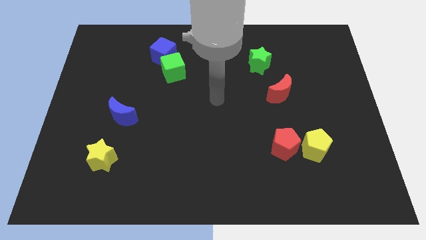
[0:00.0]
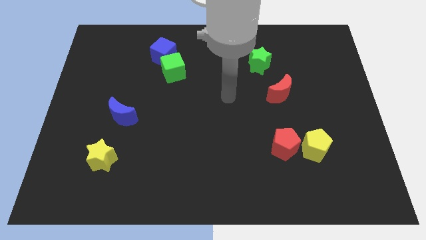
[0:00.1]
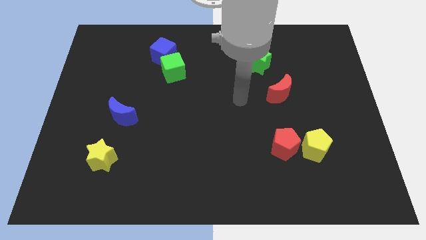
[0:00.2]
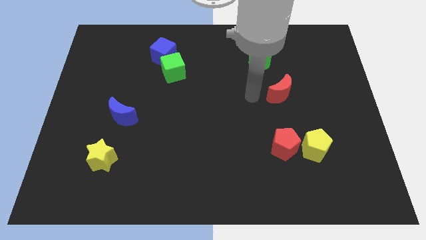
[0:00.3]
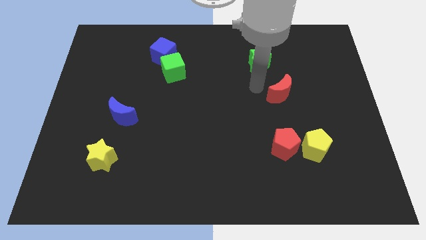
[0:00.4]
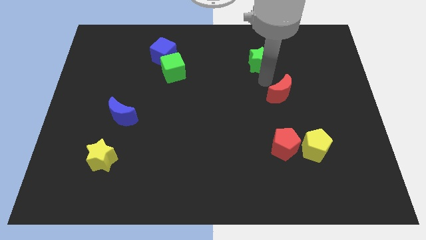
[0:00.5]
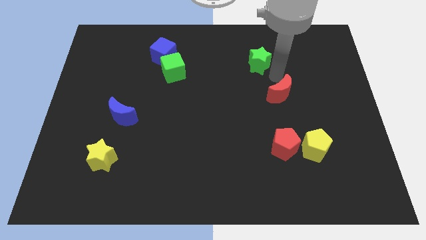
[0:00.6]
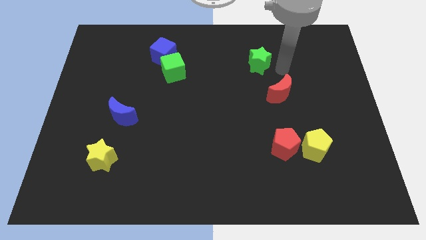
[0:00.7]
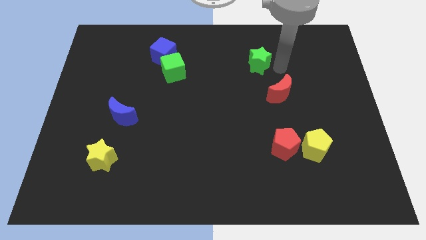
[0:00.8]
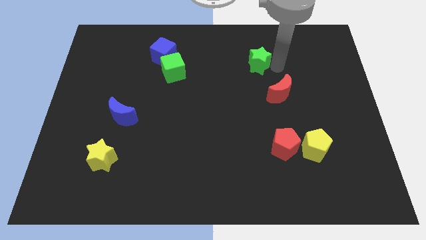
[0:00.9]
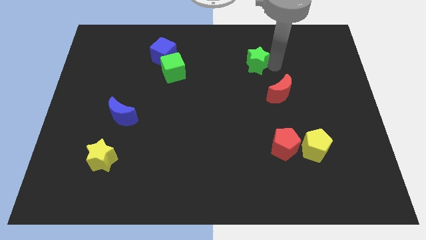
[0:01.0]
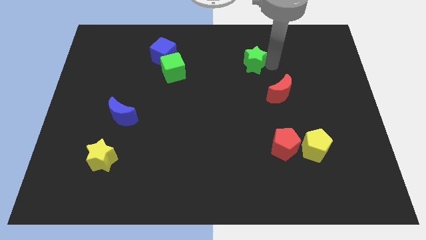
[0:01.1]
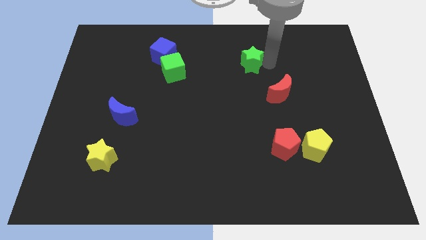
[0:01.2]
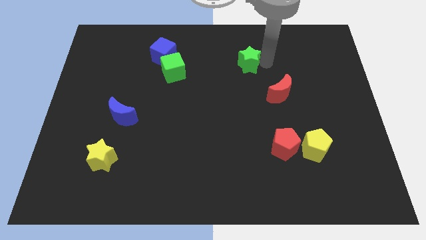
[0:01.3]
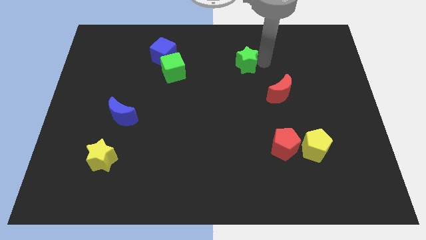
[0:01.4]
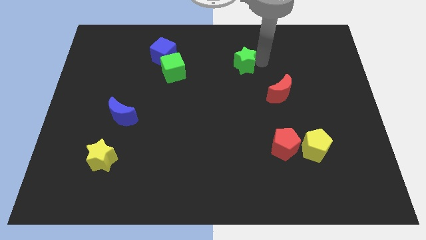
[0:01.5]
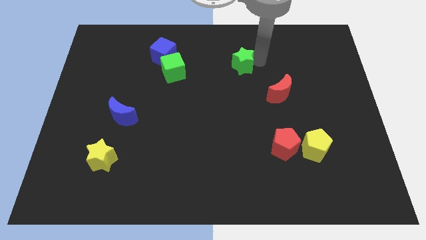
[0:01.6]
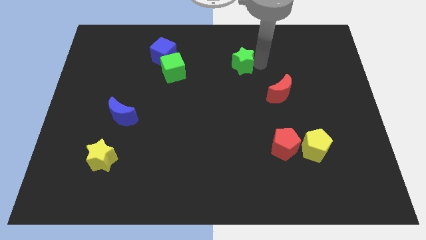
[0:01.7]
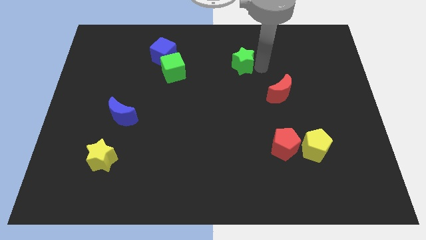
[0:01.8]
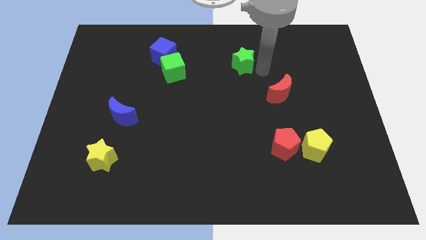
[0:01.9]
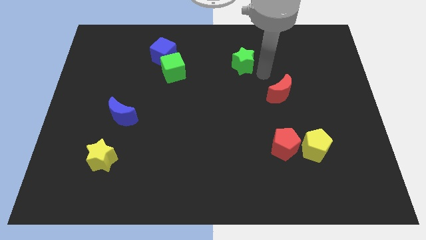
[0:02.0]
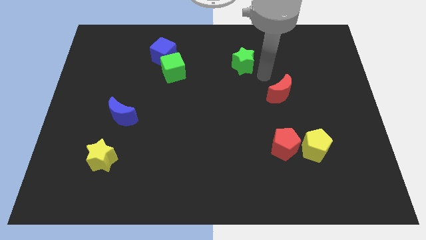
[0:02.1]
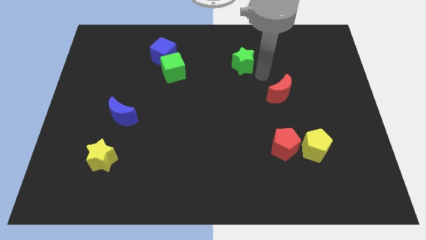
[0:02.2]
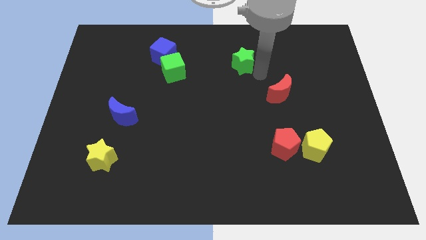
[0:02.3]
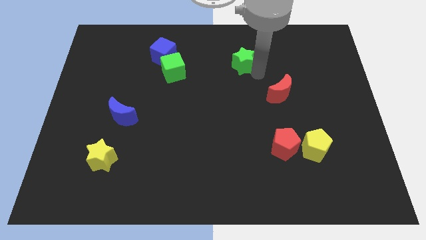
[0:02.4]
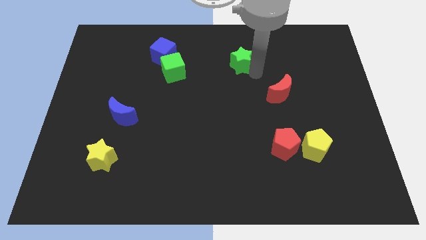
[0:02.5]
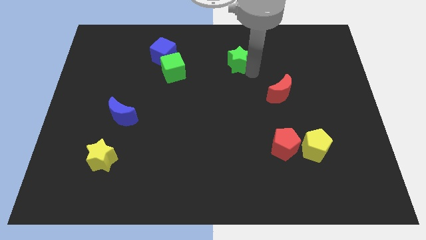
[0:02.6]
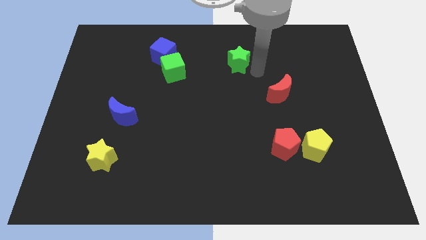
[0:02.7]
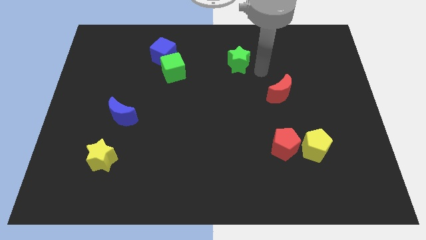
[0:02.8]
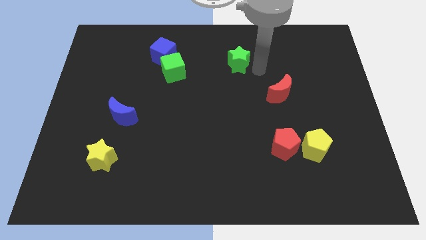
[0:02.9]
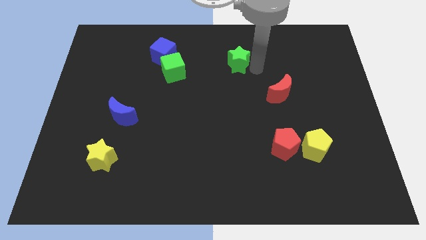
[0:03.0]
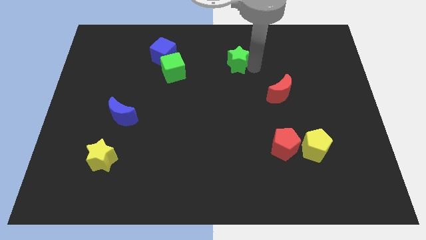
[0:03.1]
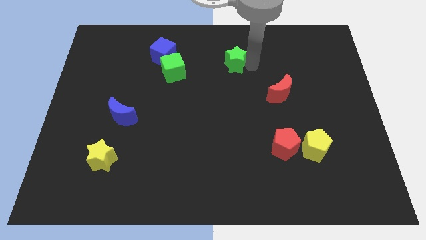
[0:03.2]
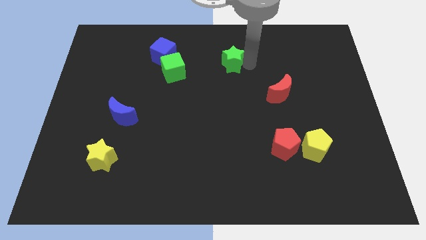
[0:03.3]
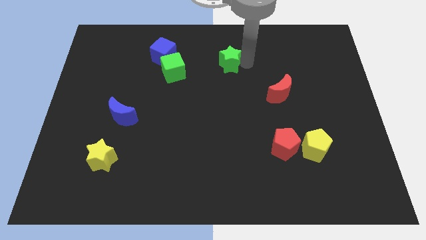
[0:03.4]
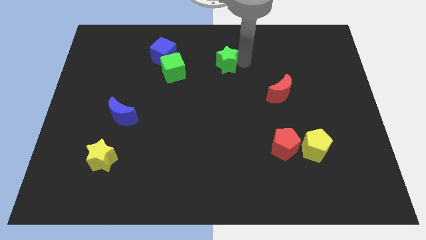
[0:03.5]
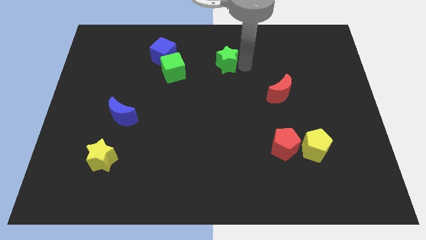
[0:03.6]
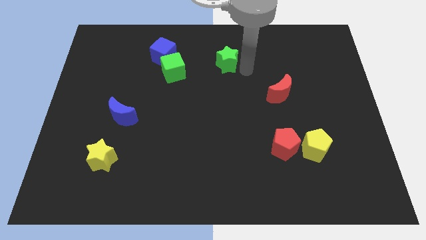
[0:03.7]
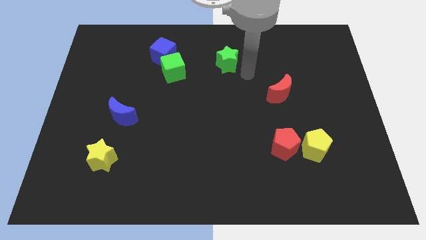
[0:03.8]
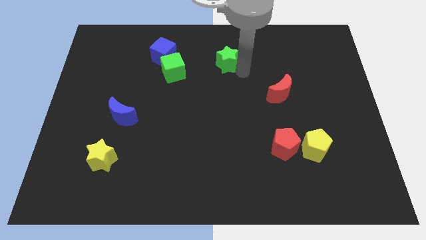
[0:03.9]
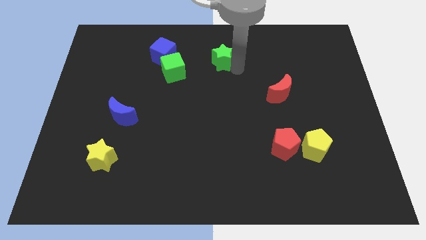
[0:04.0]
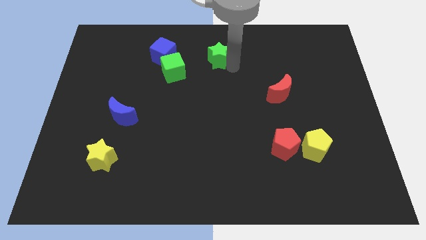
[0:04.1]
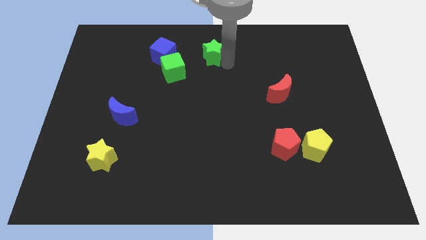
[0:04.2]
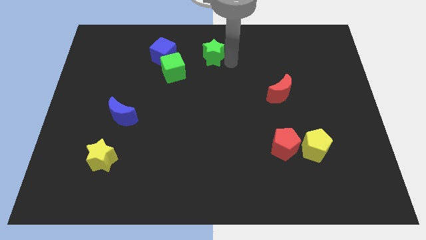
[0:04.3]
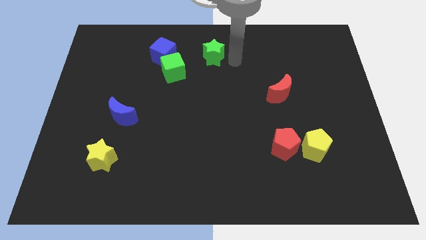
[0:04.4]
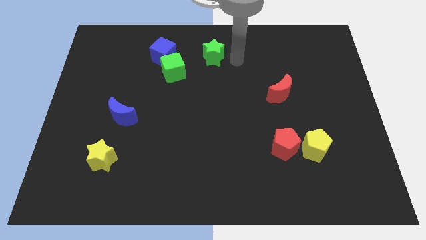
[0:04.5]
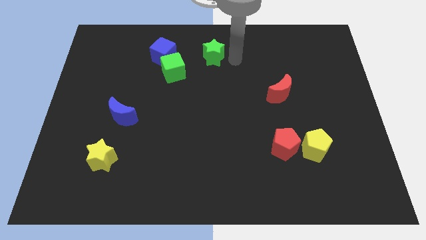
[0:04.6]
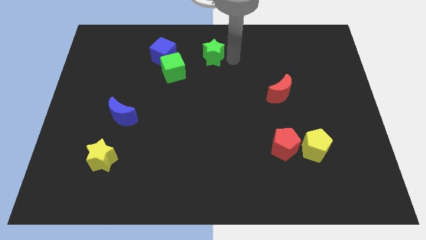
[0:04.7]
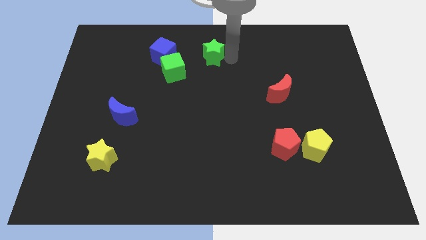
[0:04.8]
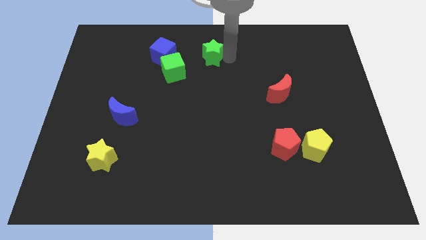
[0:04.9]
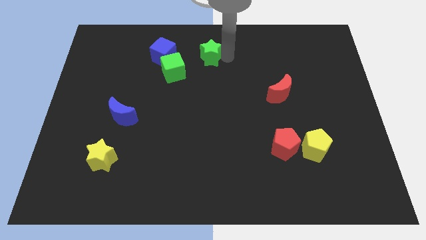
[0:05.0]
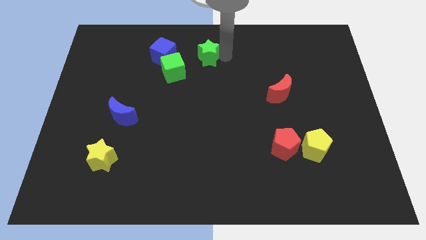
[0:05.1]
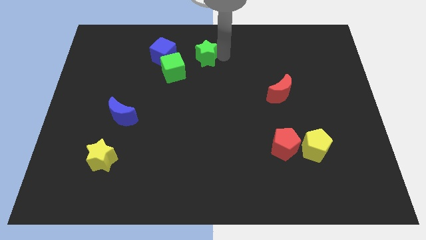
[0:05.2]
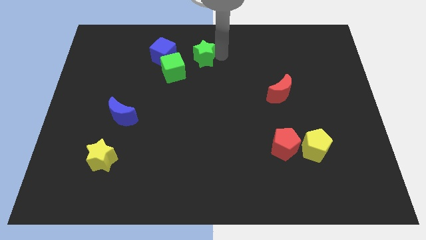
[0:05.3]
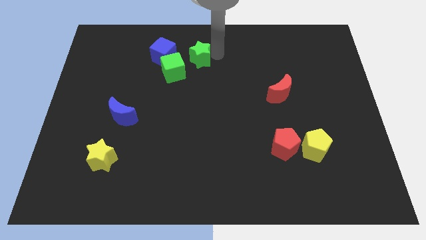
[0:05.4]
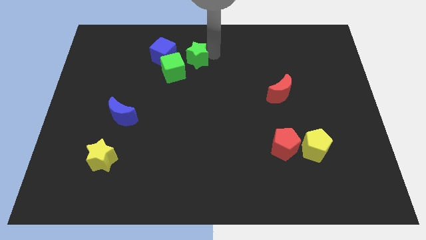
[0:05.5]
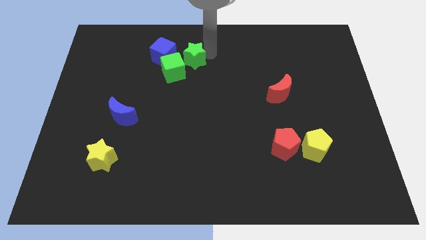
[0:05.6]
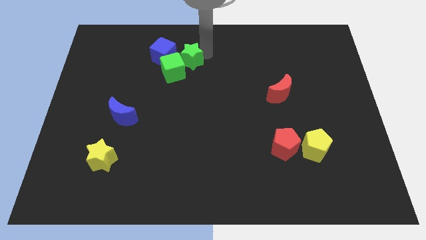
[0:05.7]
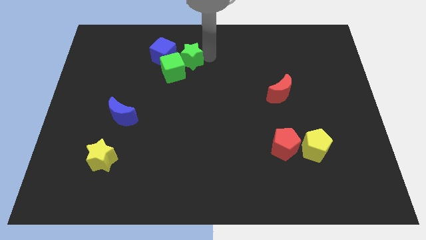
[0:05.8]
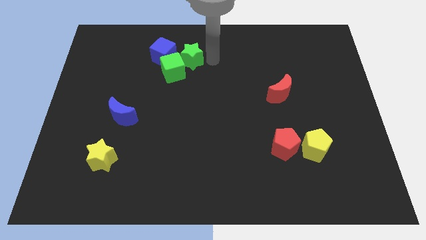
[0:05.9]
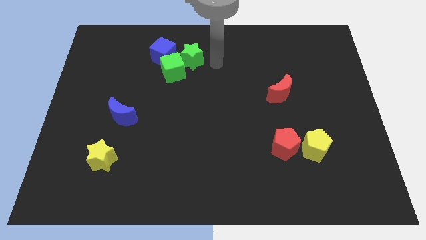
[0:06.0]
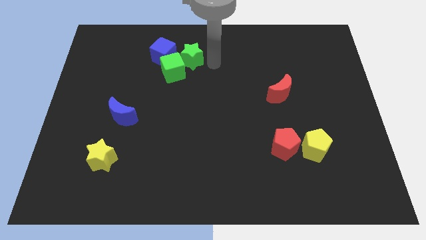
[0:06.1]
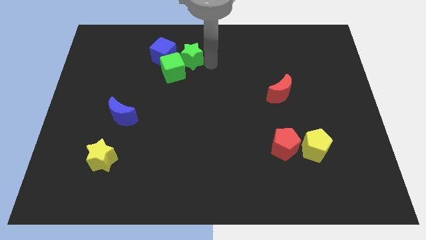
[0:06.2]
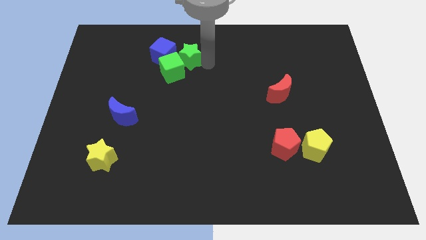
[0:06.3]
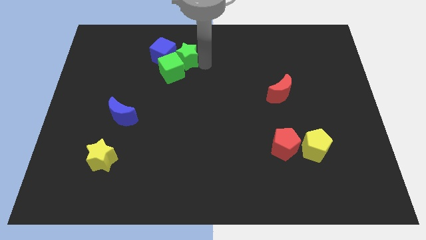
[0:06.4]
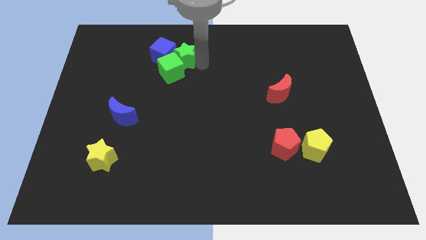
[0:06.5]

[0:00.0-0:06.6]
push the green star towards the blue cube

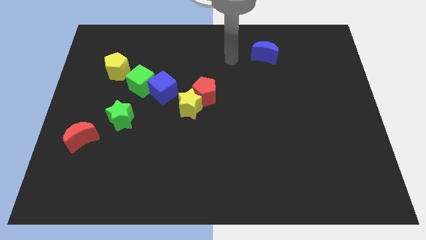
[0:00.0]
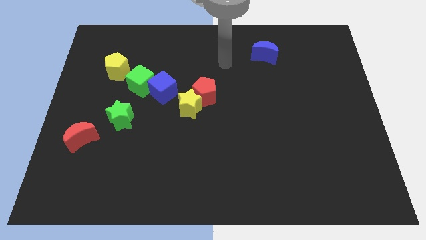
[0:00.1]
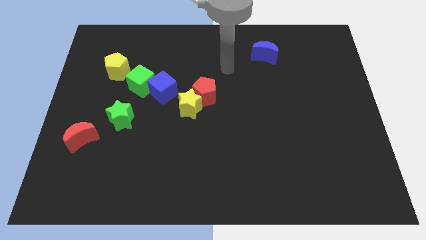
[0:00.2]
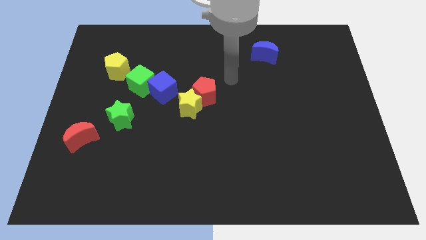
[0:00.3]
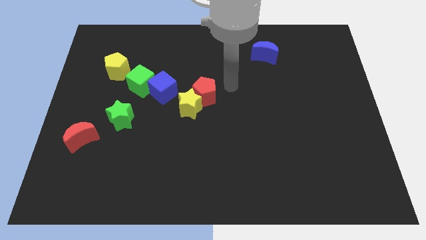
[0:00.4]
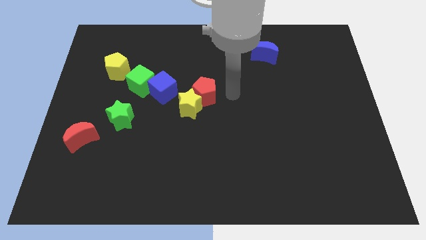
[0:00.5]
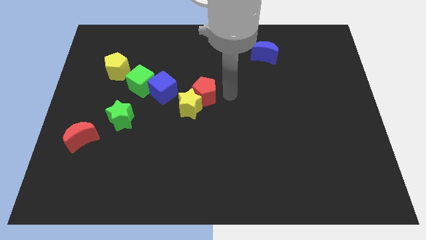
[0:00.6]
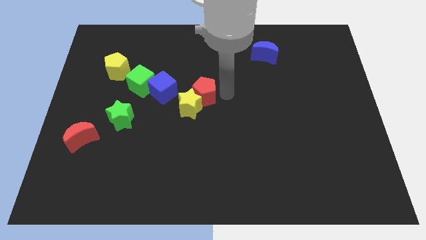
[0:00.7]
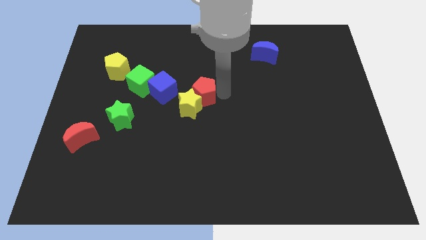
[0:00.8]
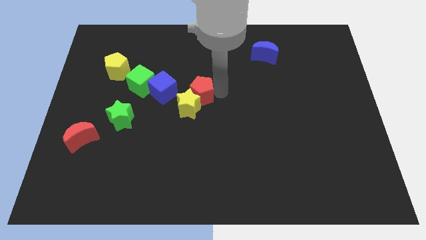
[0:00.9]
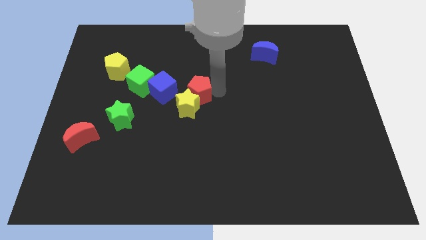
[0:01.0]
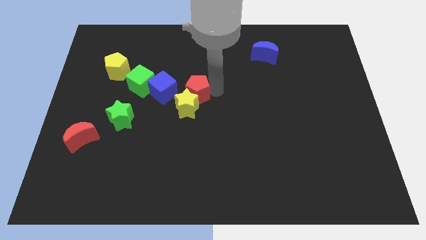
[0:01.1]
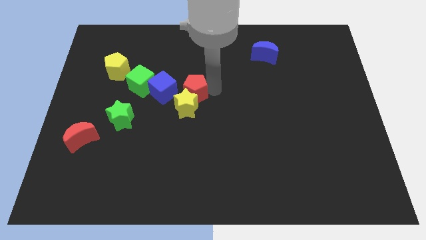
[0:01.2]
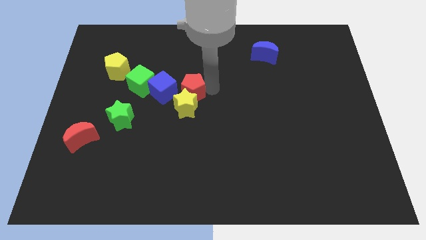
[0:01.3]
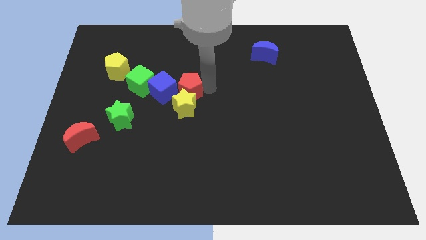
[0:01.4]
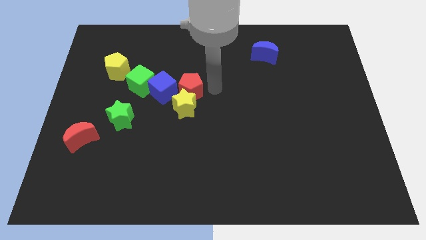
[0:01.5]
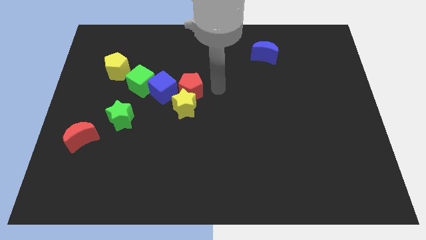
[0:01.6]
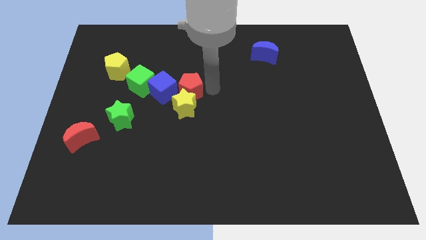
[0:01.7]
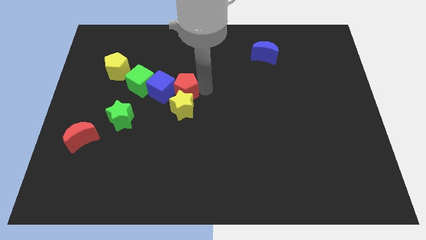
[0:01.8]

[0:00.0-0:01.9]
push the red pentagon next to the blue cube
